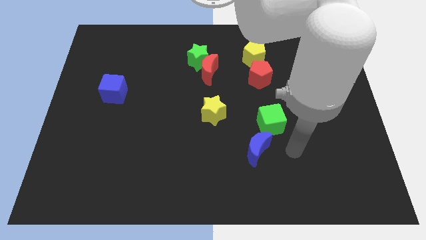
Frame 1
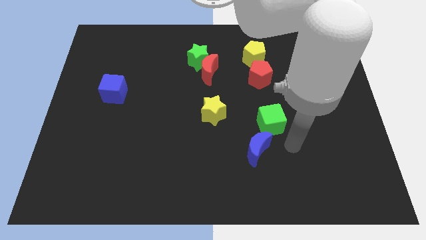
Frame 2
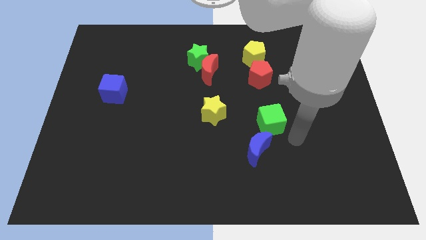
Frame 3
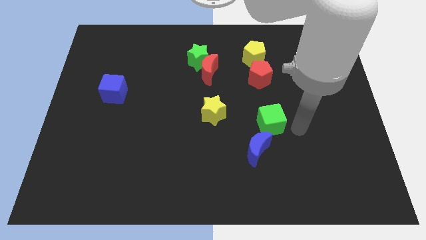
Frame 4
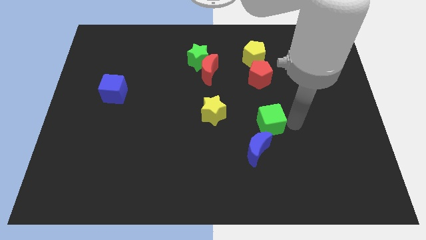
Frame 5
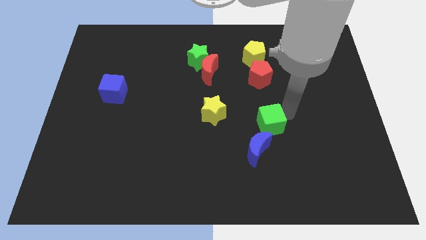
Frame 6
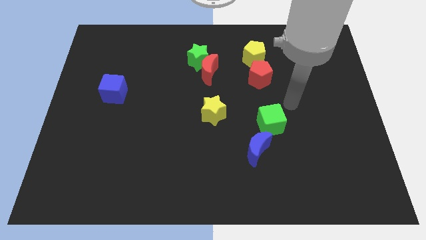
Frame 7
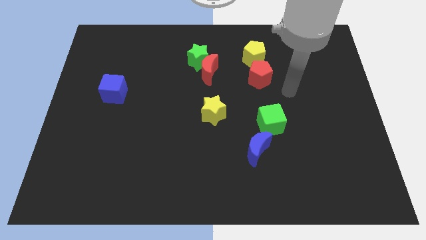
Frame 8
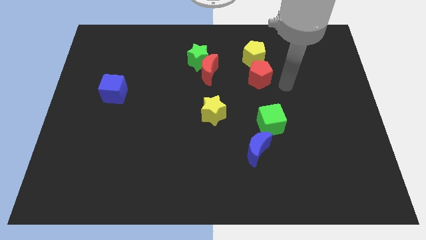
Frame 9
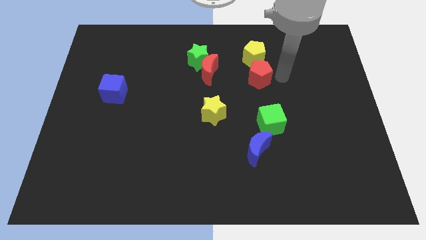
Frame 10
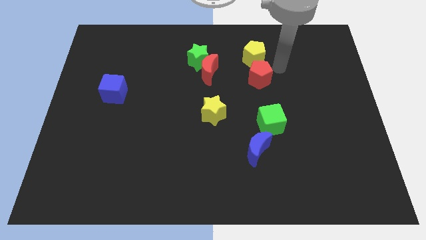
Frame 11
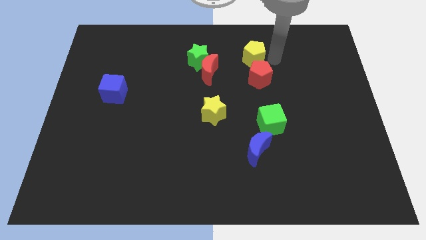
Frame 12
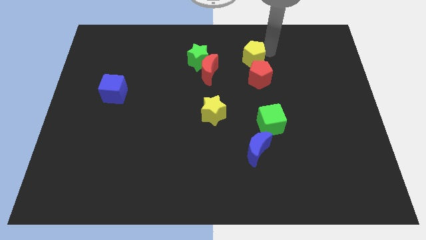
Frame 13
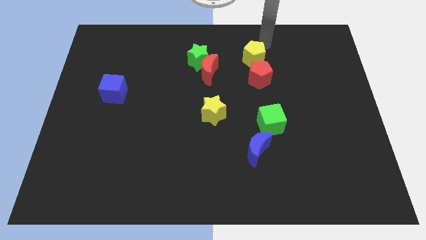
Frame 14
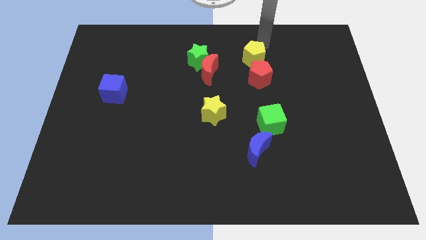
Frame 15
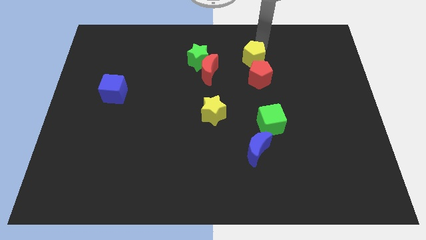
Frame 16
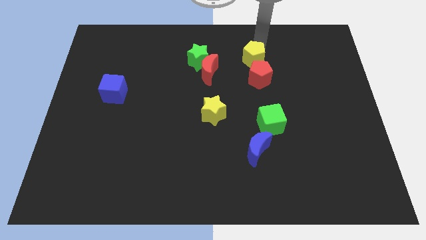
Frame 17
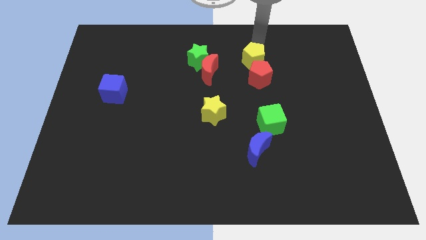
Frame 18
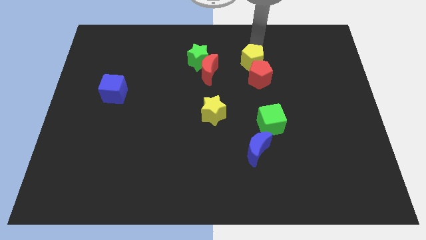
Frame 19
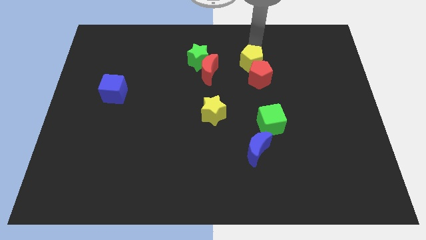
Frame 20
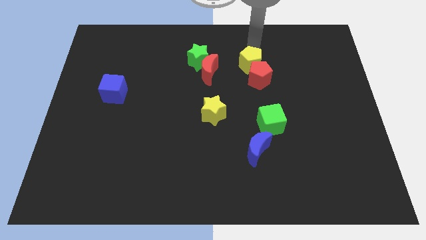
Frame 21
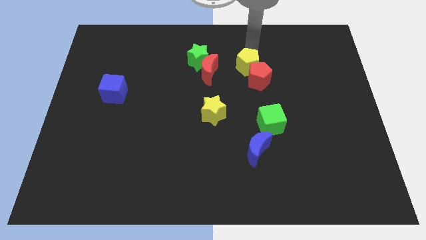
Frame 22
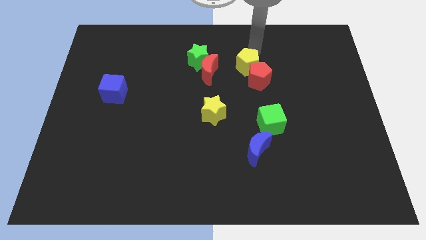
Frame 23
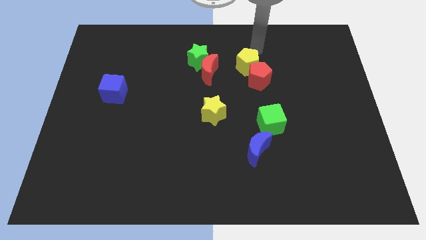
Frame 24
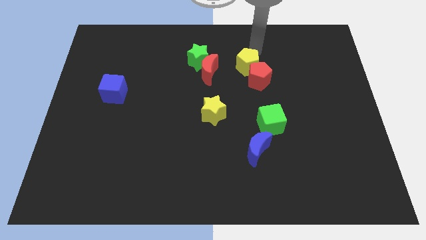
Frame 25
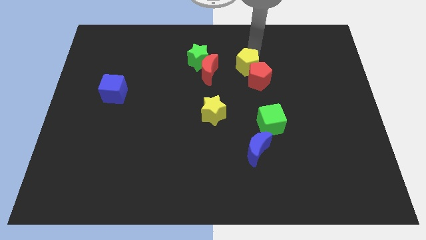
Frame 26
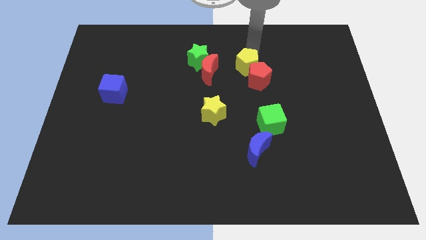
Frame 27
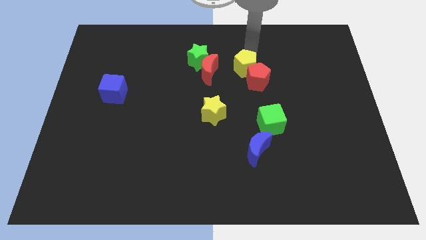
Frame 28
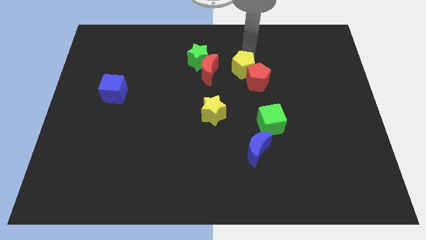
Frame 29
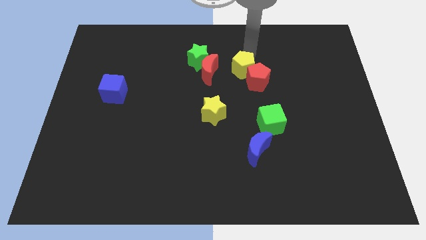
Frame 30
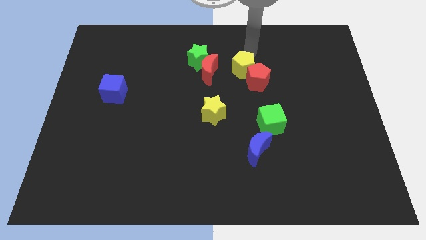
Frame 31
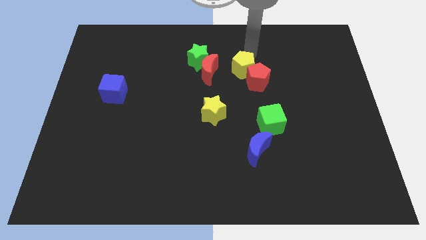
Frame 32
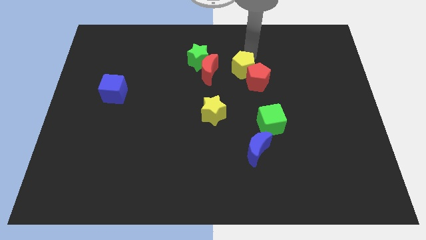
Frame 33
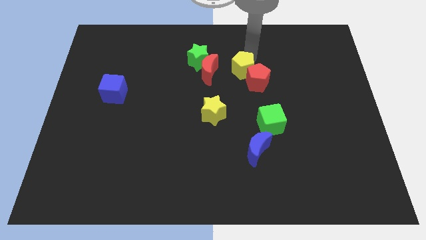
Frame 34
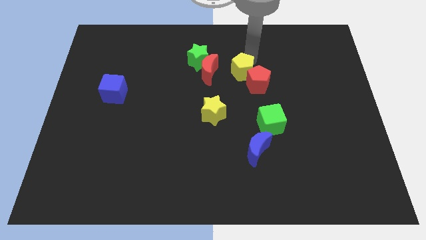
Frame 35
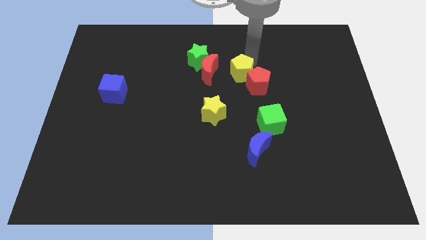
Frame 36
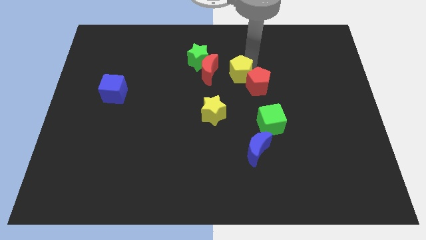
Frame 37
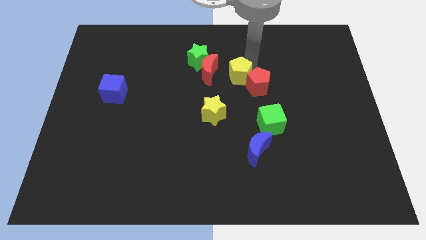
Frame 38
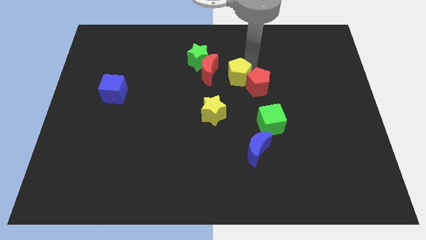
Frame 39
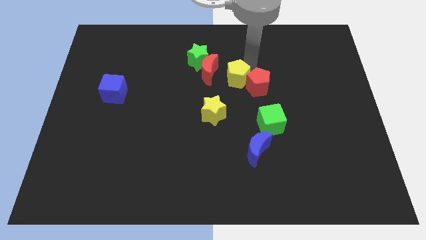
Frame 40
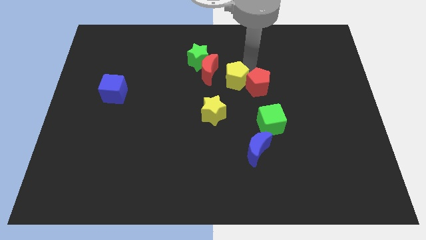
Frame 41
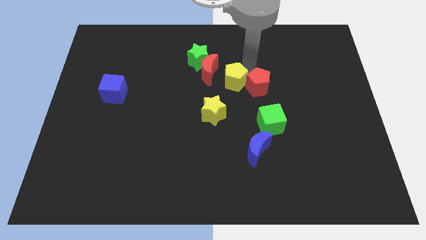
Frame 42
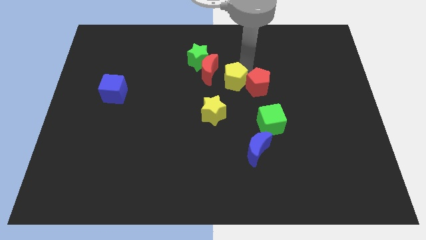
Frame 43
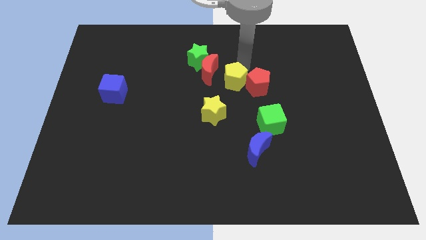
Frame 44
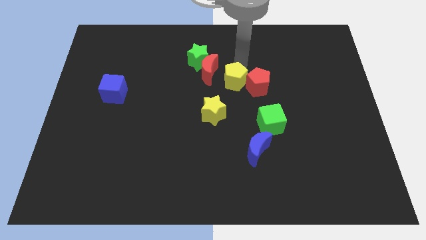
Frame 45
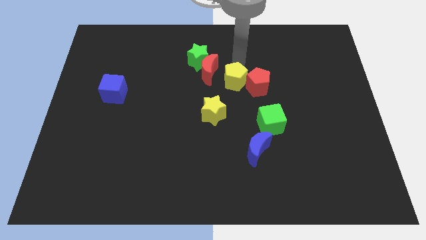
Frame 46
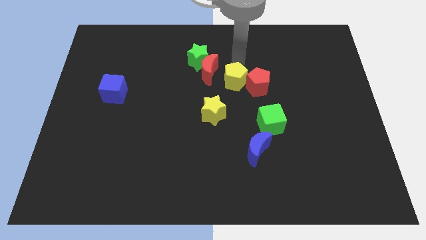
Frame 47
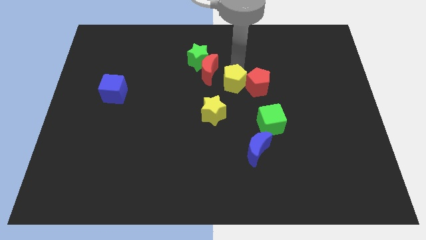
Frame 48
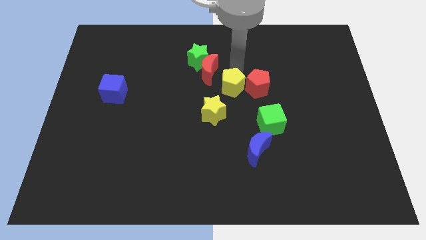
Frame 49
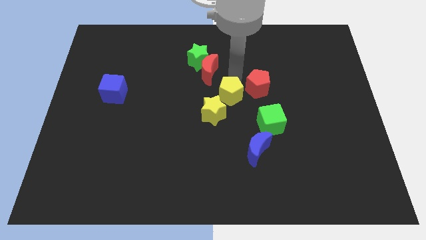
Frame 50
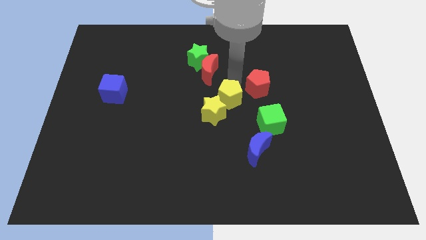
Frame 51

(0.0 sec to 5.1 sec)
put the yellow pentagon next to the yellow star

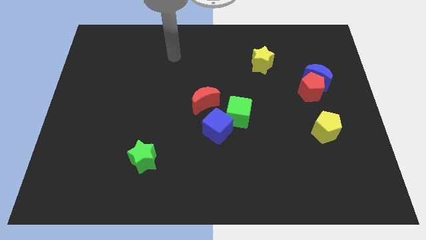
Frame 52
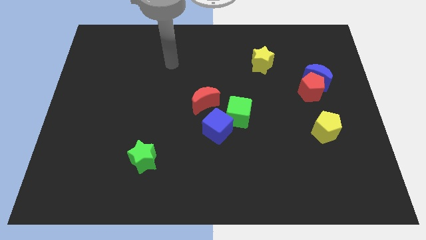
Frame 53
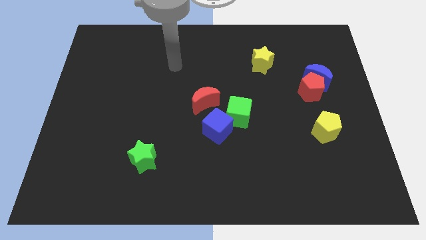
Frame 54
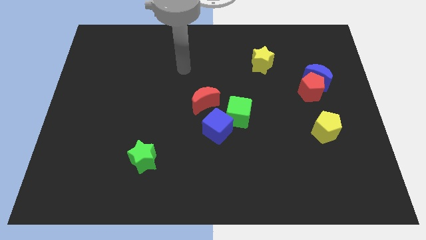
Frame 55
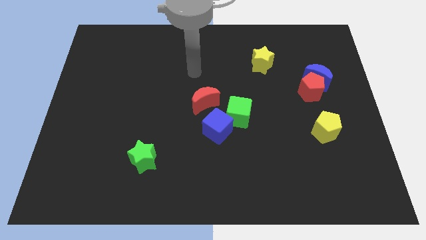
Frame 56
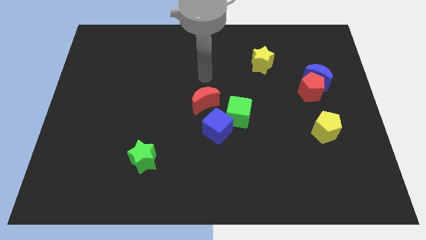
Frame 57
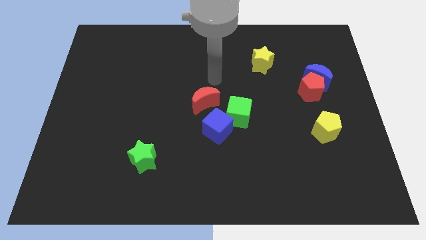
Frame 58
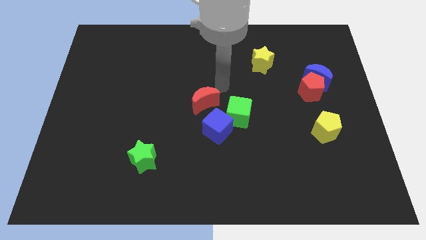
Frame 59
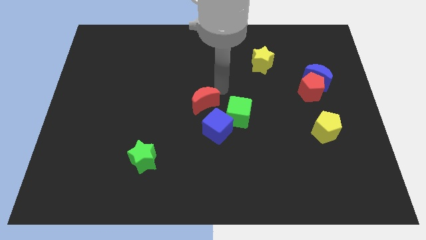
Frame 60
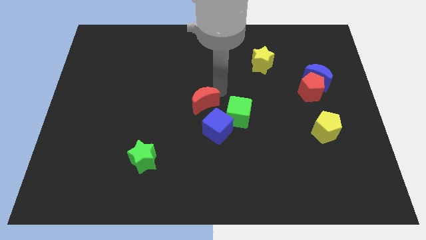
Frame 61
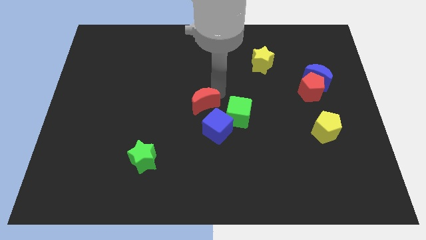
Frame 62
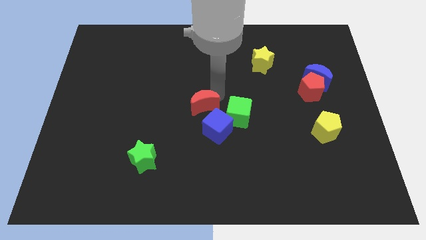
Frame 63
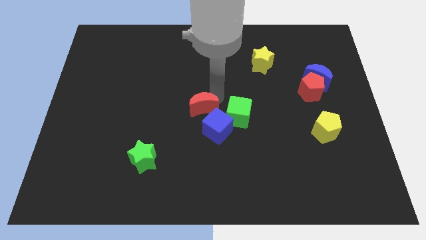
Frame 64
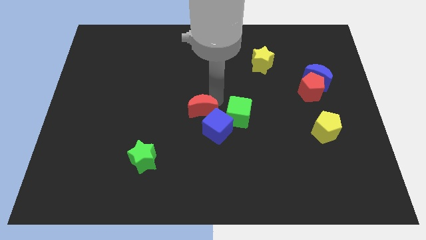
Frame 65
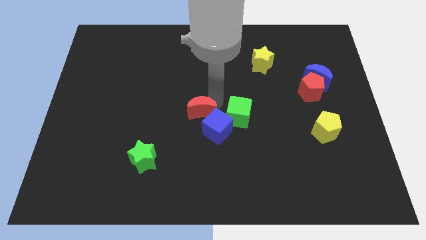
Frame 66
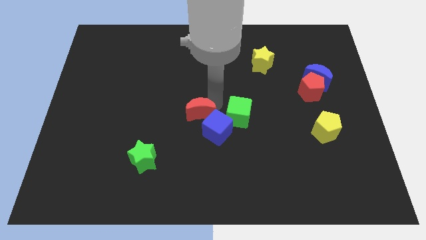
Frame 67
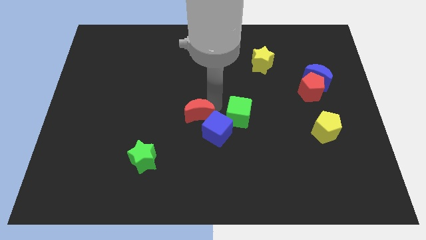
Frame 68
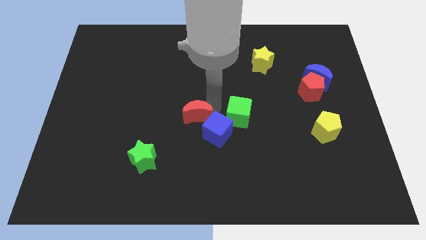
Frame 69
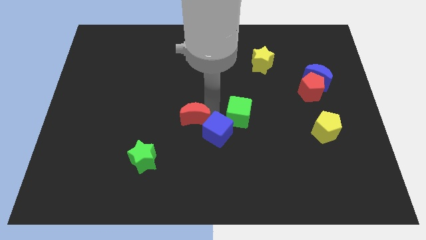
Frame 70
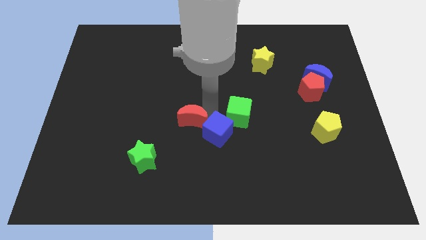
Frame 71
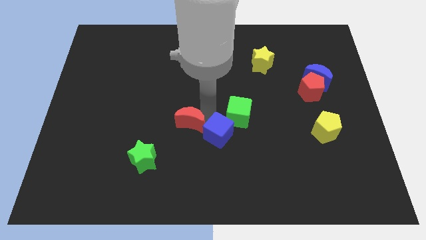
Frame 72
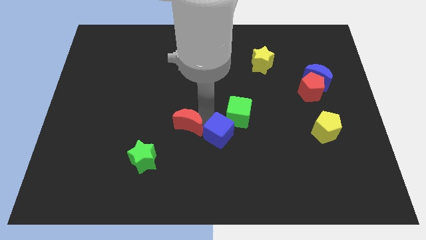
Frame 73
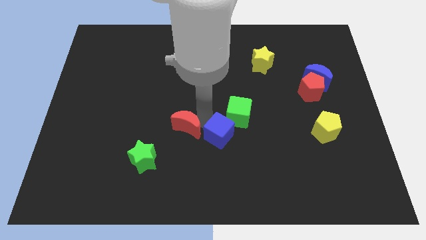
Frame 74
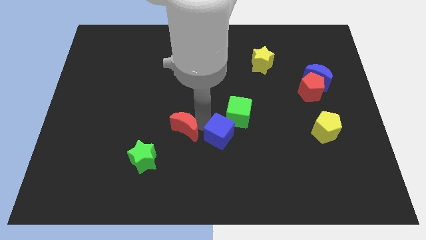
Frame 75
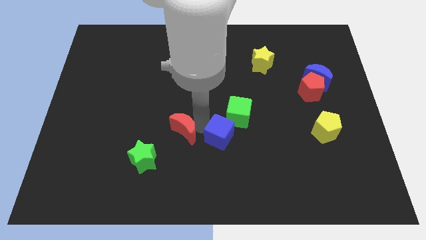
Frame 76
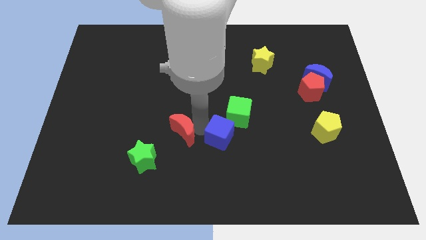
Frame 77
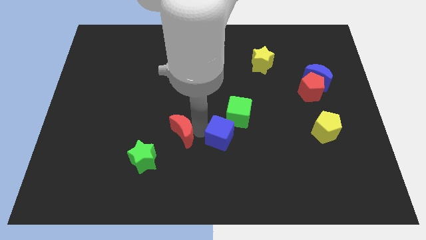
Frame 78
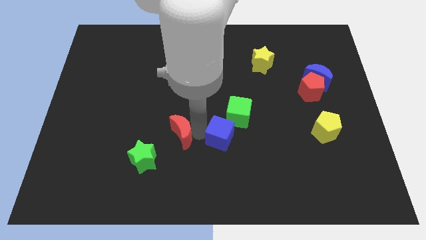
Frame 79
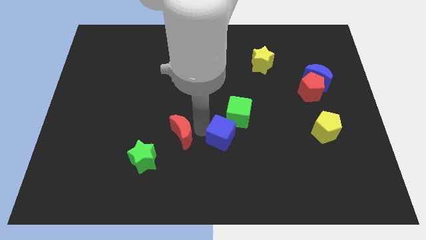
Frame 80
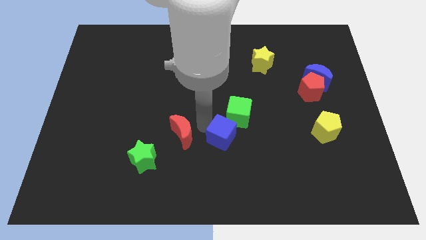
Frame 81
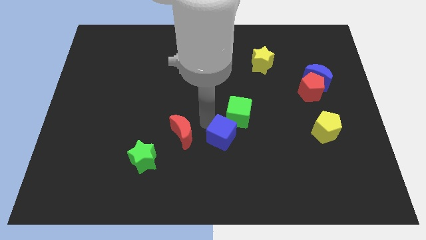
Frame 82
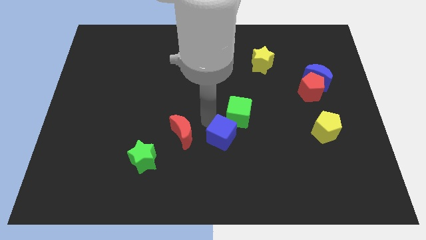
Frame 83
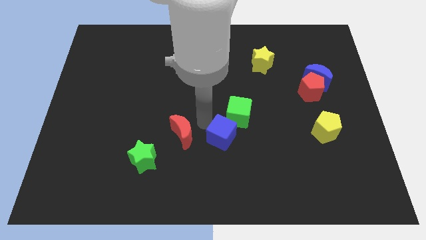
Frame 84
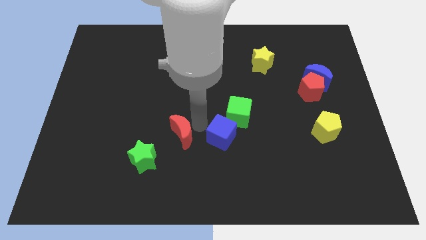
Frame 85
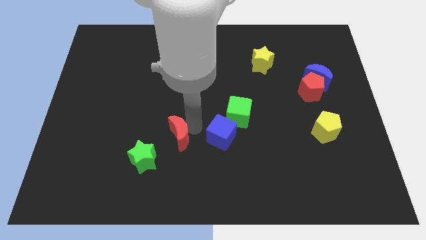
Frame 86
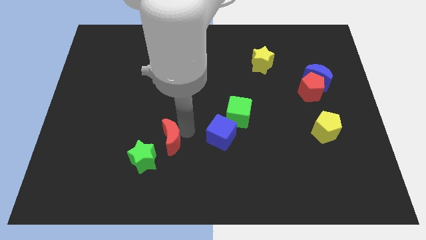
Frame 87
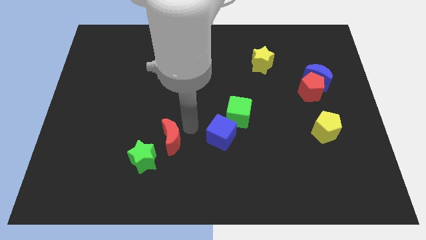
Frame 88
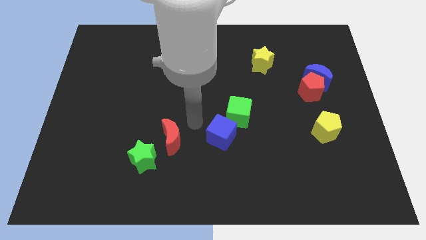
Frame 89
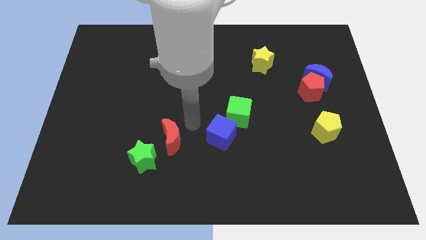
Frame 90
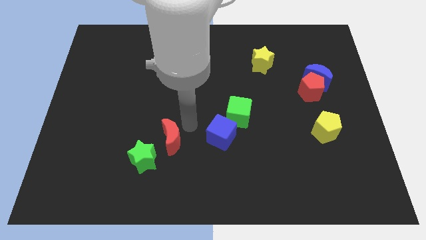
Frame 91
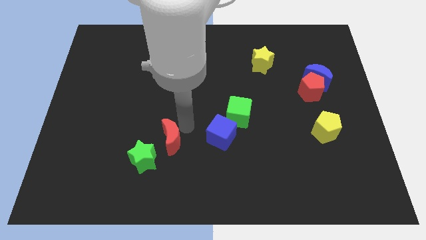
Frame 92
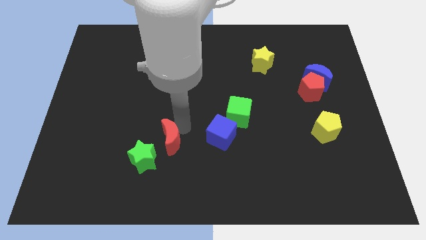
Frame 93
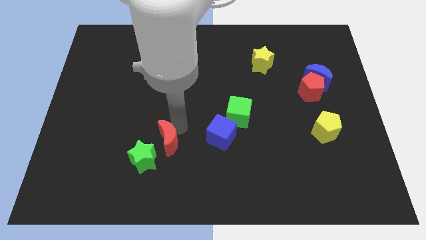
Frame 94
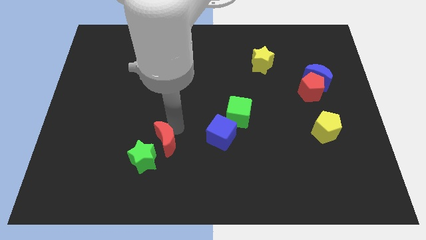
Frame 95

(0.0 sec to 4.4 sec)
slide the red moon to the green star
